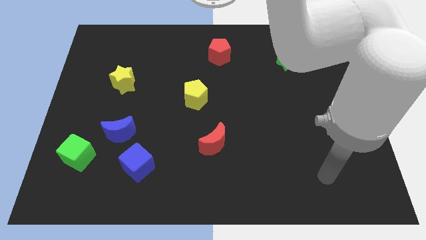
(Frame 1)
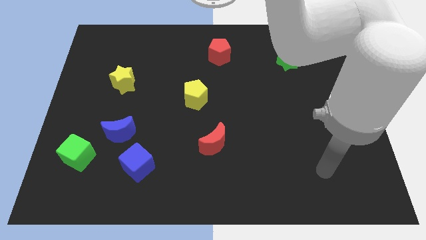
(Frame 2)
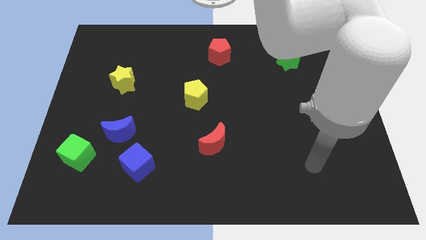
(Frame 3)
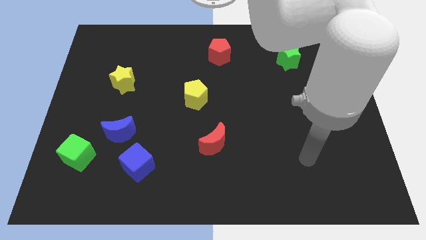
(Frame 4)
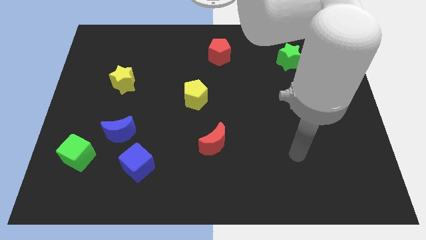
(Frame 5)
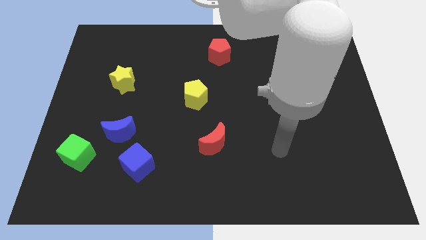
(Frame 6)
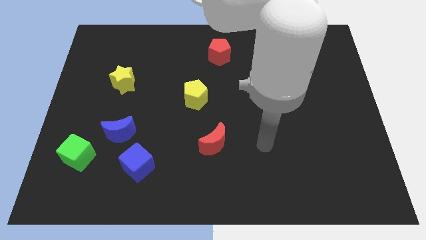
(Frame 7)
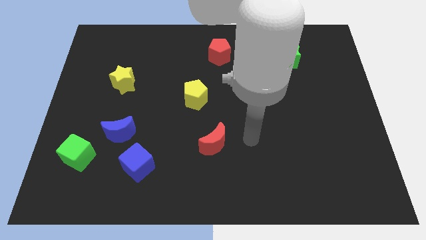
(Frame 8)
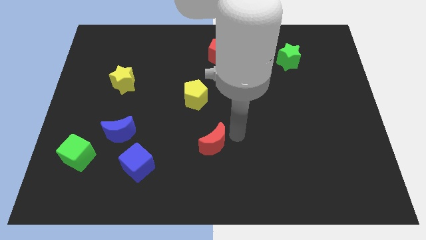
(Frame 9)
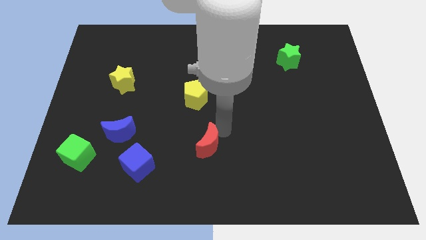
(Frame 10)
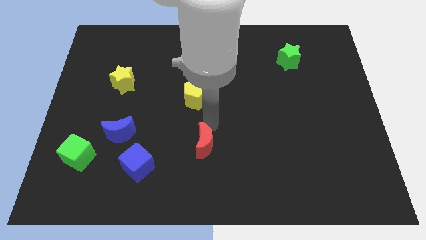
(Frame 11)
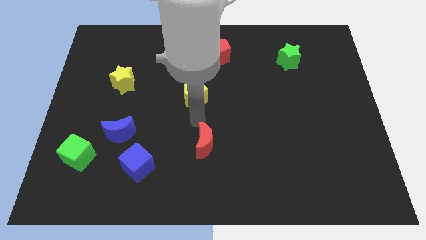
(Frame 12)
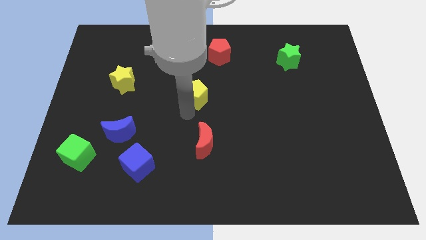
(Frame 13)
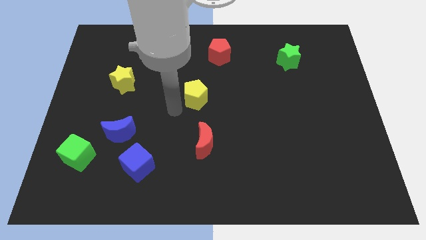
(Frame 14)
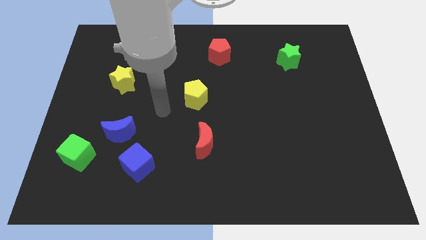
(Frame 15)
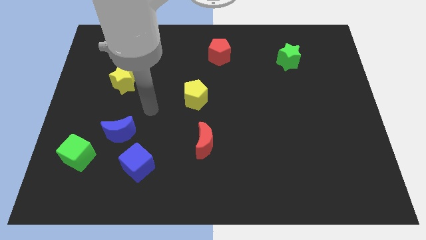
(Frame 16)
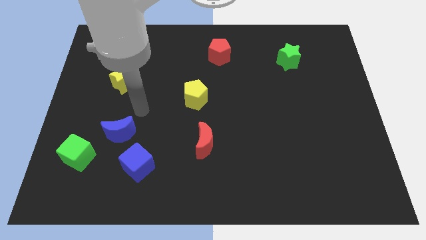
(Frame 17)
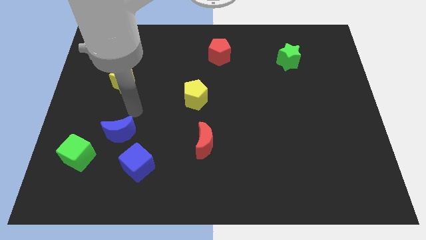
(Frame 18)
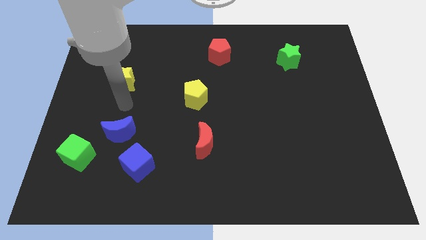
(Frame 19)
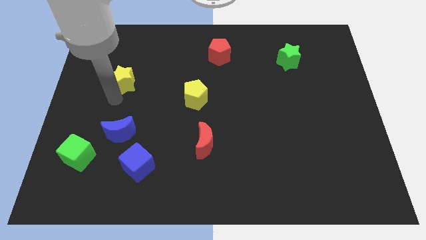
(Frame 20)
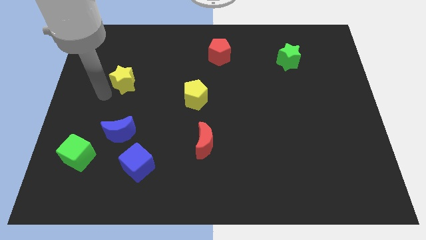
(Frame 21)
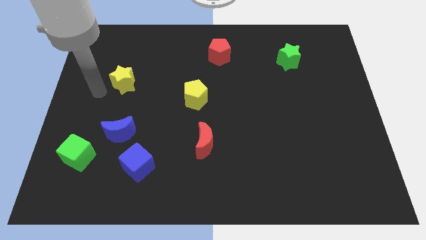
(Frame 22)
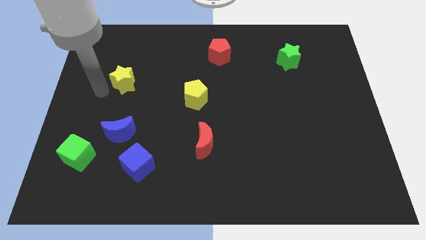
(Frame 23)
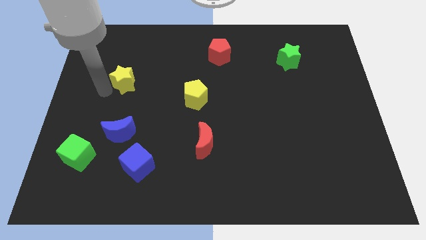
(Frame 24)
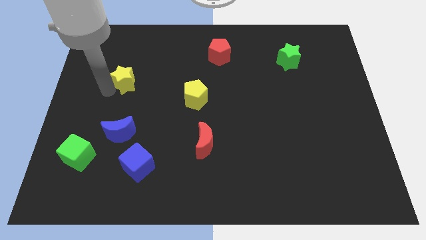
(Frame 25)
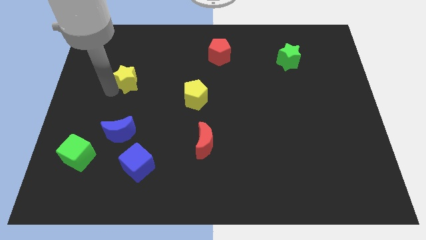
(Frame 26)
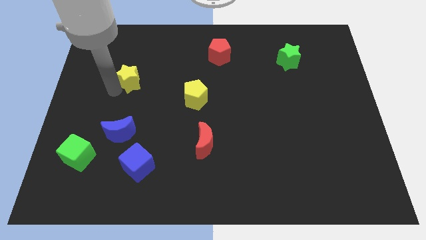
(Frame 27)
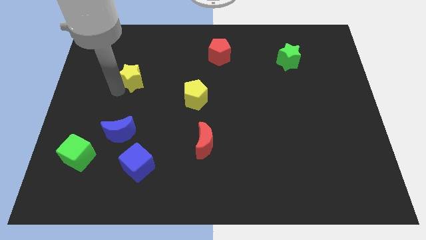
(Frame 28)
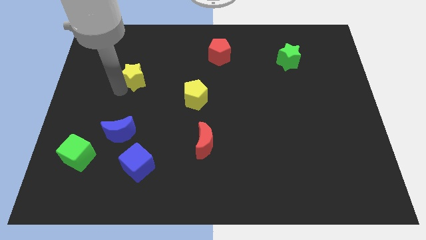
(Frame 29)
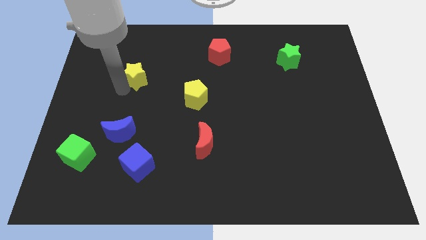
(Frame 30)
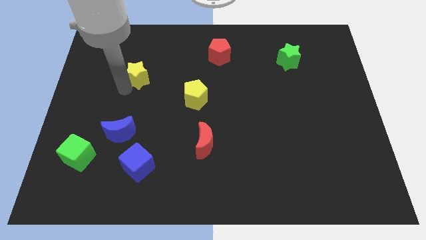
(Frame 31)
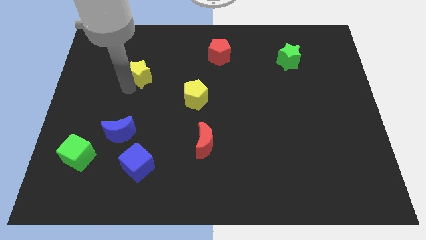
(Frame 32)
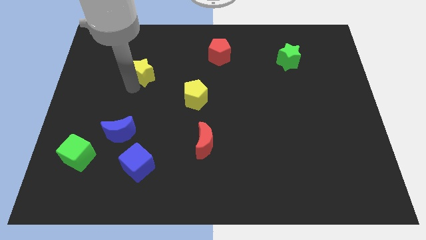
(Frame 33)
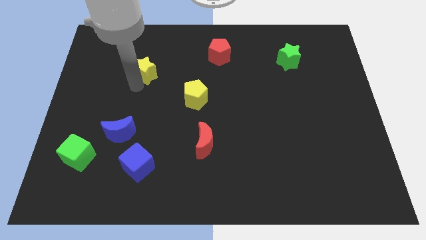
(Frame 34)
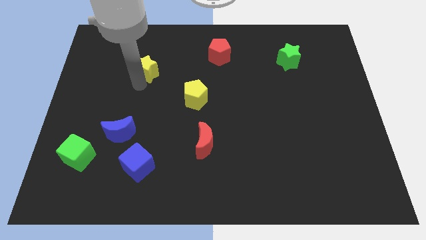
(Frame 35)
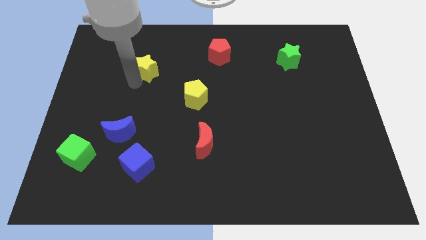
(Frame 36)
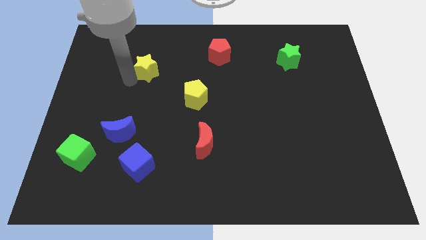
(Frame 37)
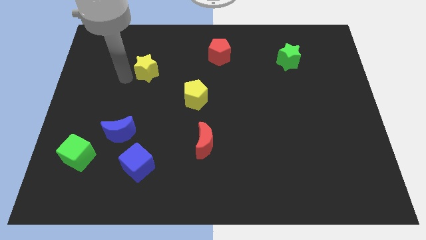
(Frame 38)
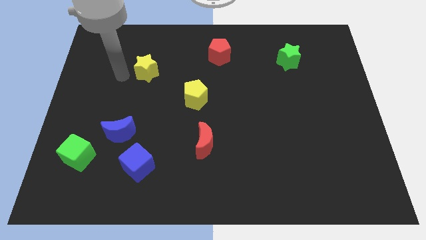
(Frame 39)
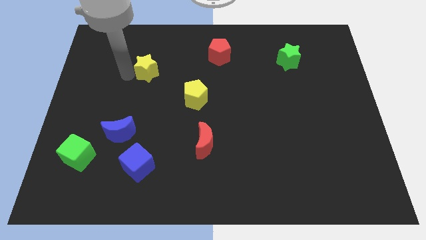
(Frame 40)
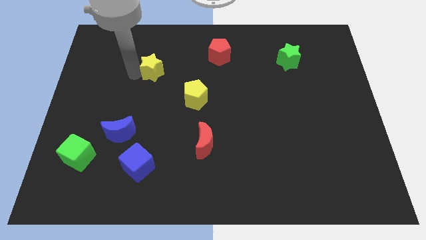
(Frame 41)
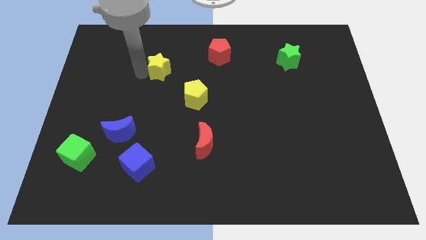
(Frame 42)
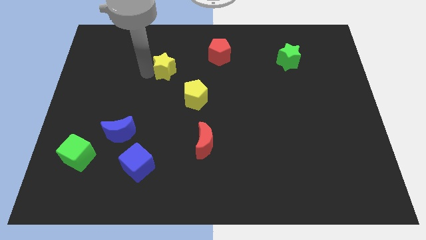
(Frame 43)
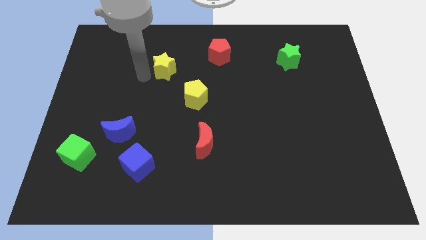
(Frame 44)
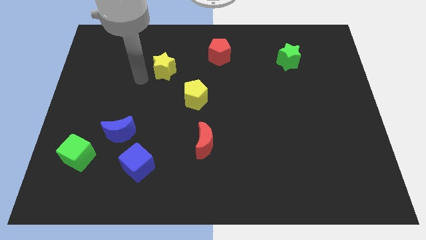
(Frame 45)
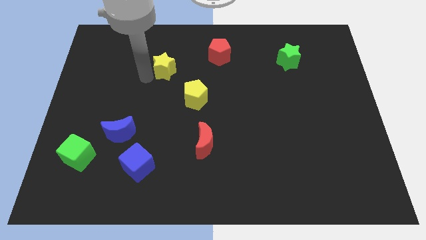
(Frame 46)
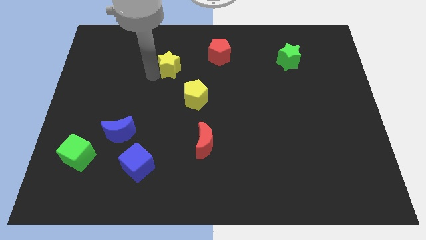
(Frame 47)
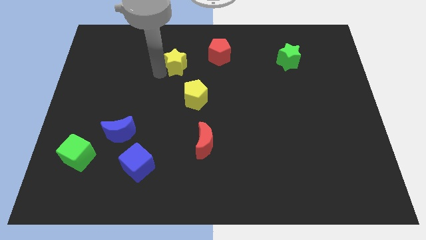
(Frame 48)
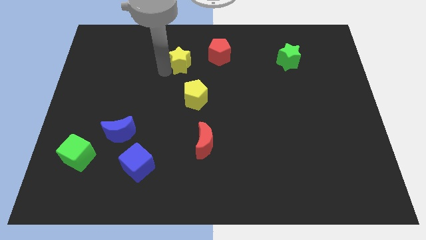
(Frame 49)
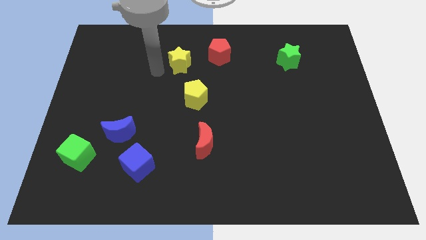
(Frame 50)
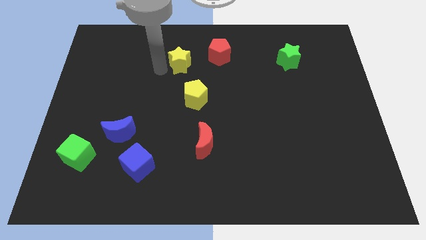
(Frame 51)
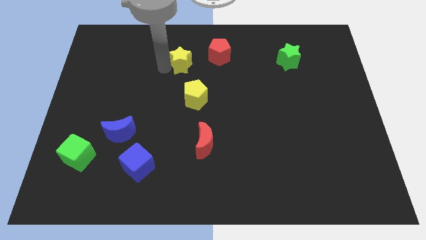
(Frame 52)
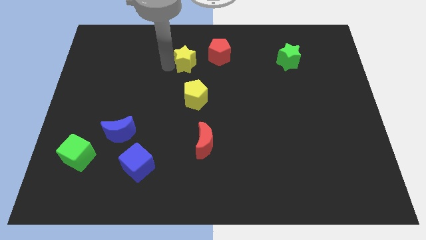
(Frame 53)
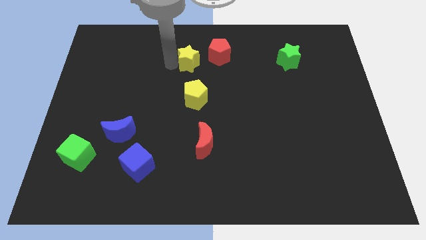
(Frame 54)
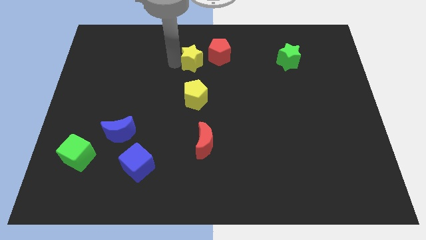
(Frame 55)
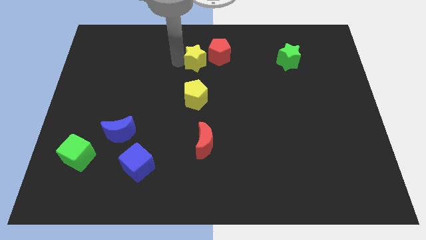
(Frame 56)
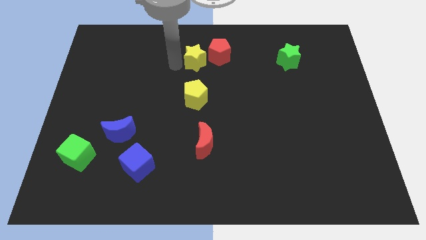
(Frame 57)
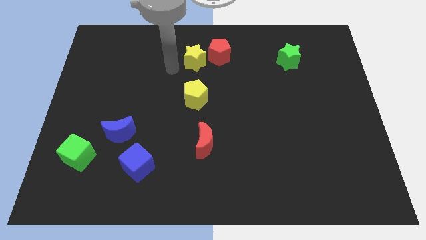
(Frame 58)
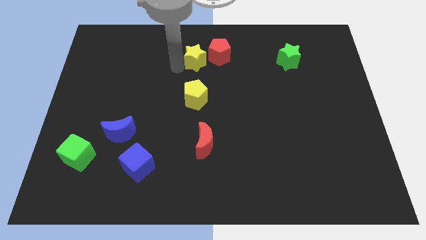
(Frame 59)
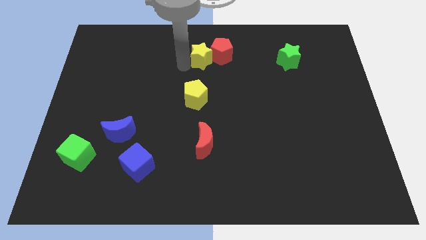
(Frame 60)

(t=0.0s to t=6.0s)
put the yellow star towards the red pentagon

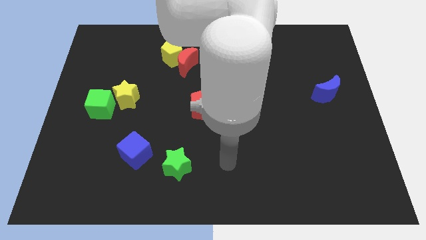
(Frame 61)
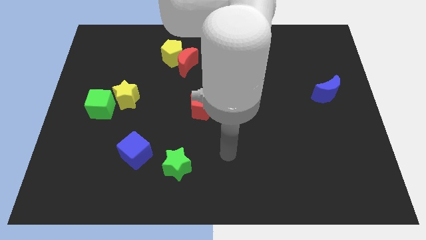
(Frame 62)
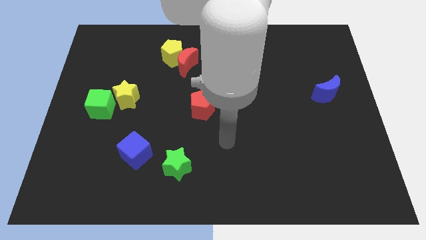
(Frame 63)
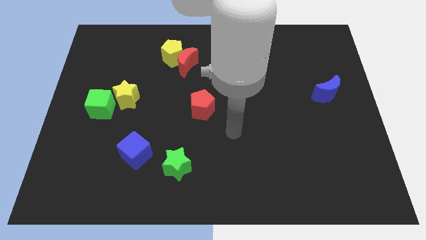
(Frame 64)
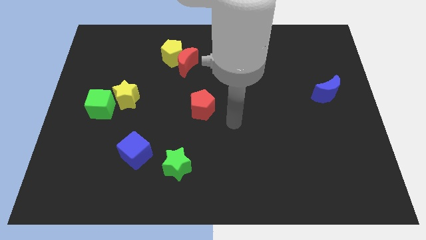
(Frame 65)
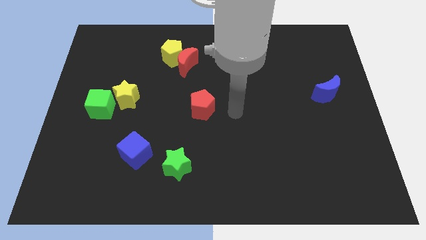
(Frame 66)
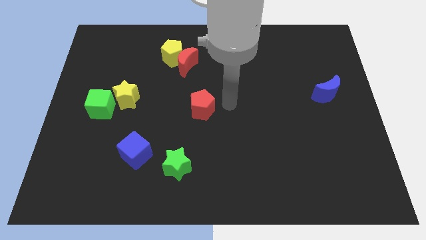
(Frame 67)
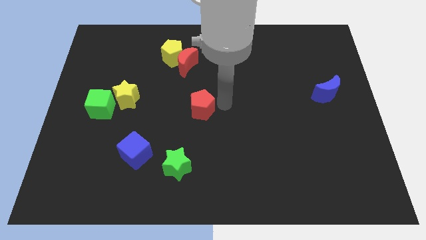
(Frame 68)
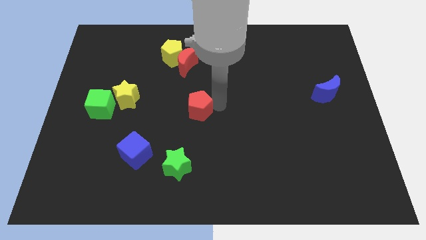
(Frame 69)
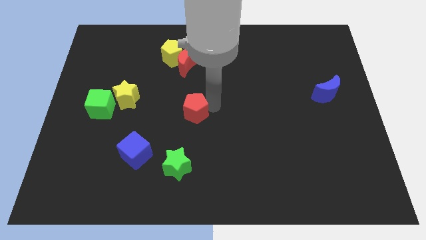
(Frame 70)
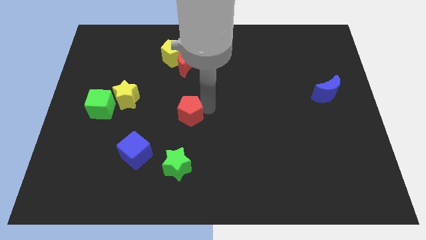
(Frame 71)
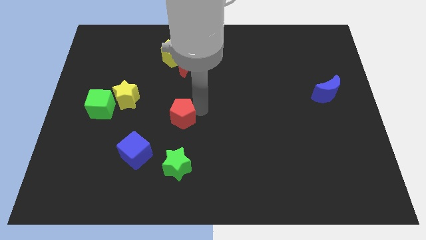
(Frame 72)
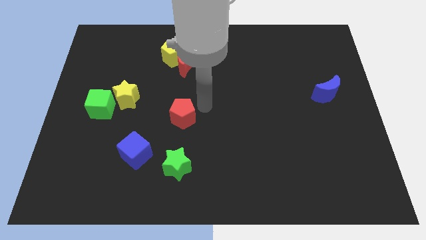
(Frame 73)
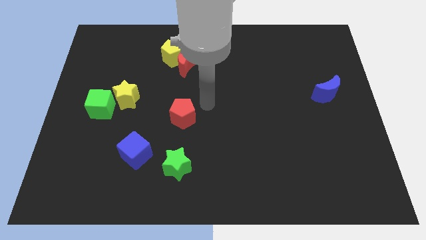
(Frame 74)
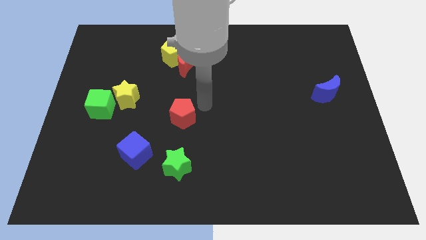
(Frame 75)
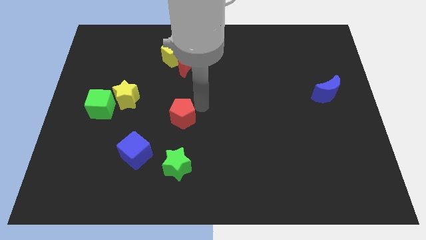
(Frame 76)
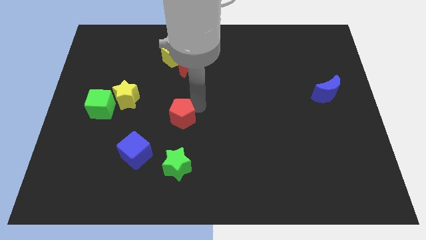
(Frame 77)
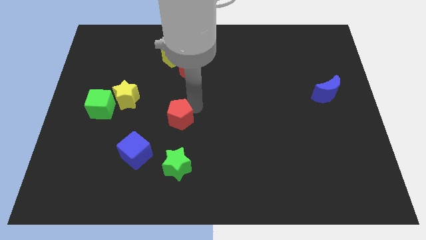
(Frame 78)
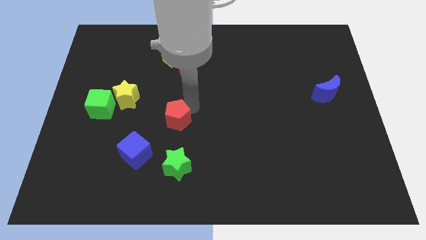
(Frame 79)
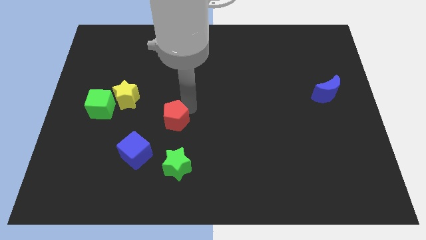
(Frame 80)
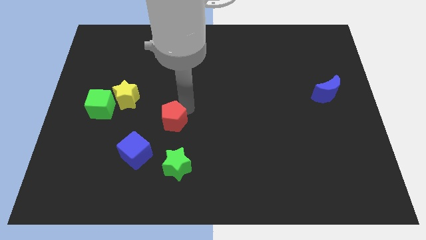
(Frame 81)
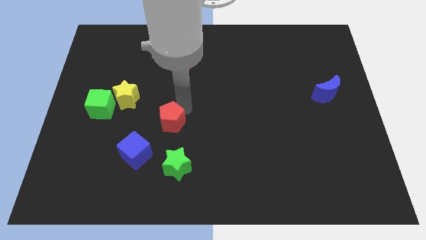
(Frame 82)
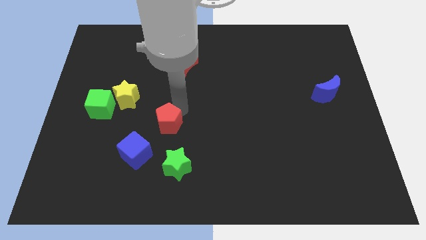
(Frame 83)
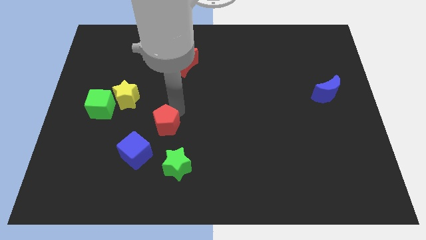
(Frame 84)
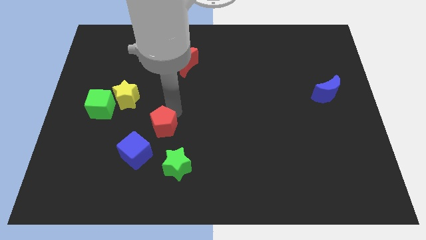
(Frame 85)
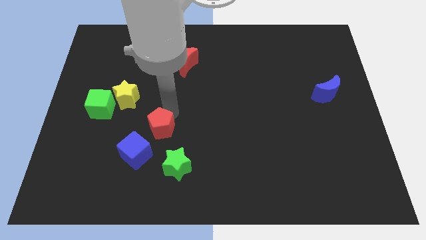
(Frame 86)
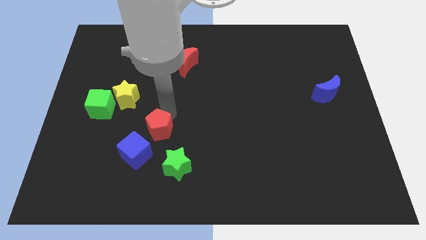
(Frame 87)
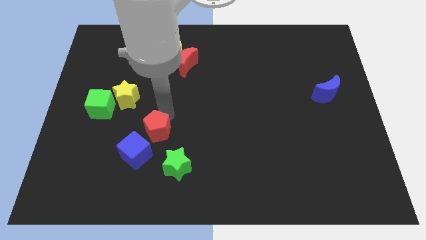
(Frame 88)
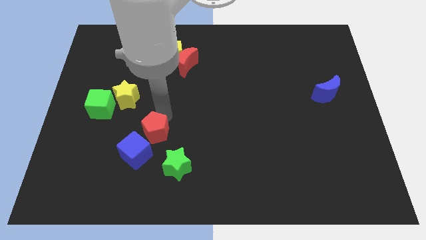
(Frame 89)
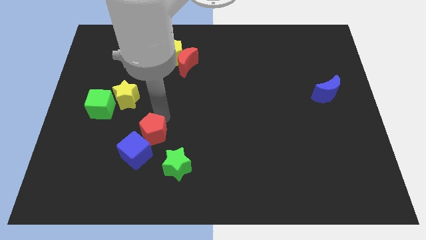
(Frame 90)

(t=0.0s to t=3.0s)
put the red pentagon close to the blue cube
